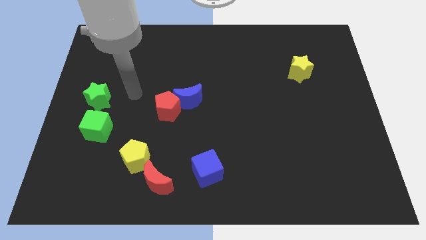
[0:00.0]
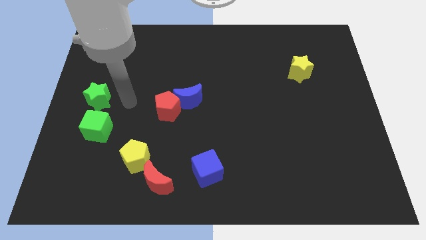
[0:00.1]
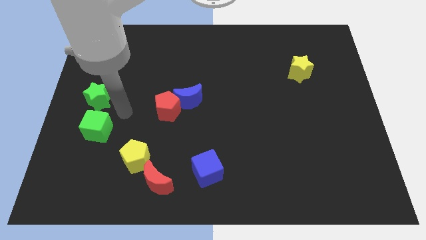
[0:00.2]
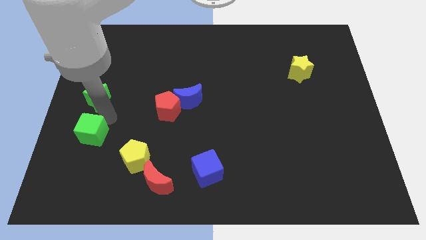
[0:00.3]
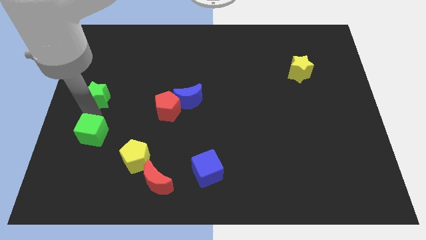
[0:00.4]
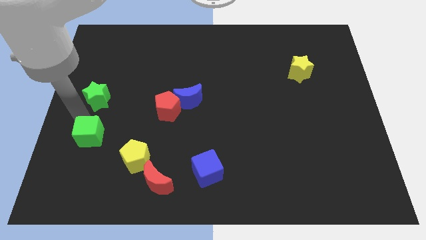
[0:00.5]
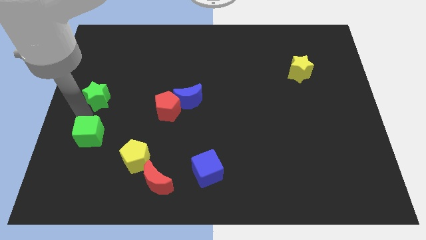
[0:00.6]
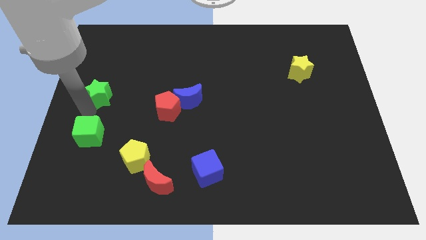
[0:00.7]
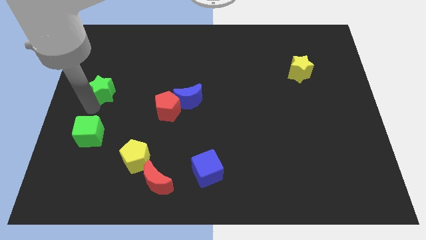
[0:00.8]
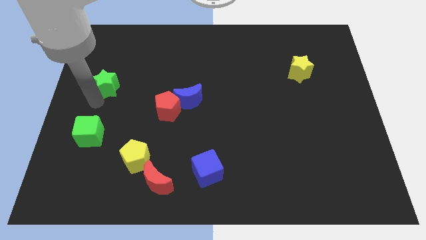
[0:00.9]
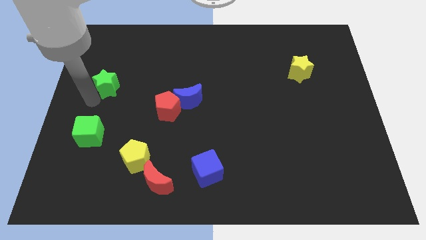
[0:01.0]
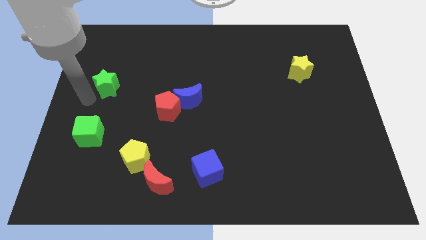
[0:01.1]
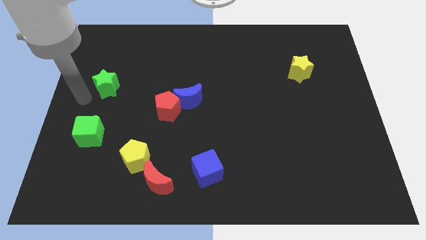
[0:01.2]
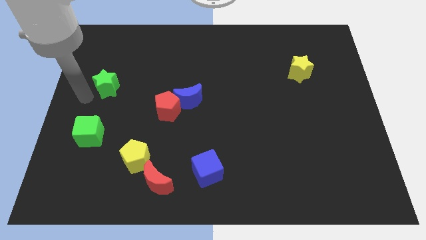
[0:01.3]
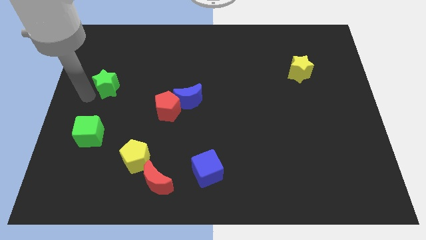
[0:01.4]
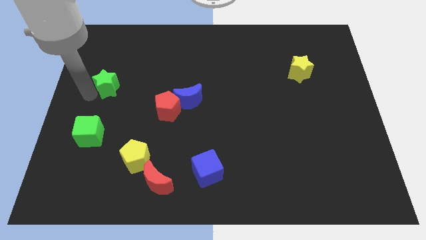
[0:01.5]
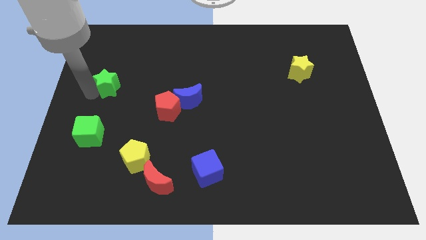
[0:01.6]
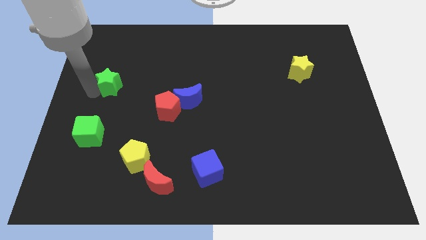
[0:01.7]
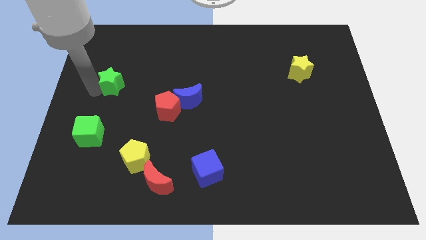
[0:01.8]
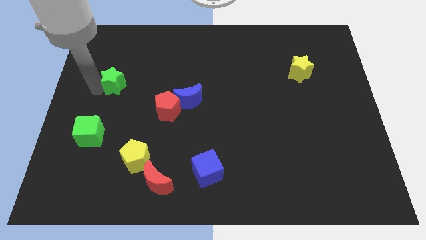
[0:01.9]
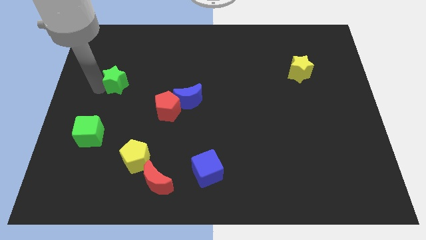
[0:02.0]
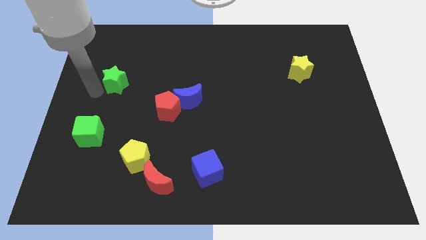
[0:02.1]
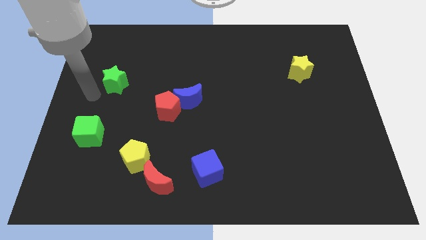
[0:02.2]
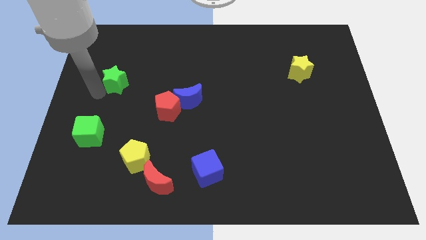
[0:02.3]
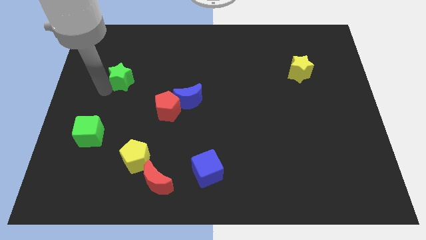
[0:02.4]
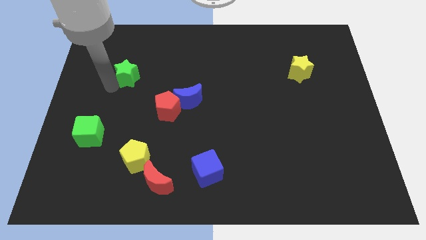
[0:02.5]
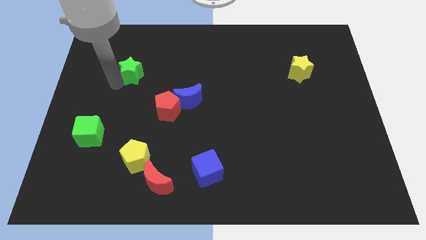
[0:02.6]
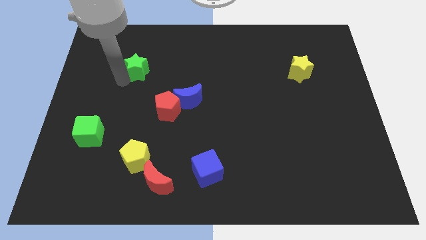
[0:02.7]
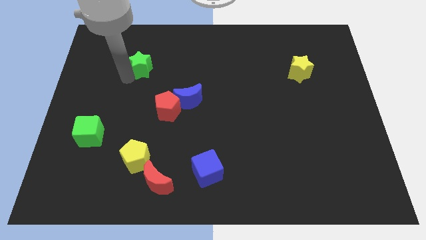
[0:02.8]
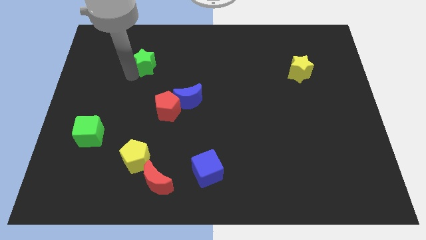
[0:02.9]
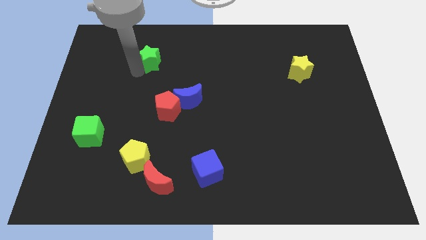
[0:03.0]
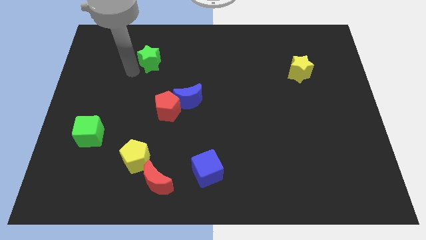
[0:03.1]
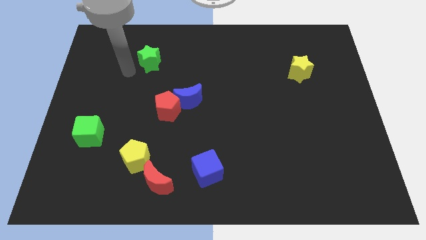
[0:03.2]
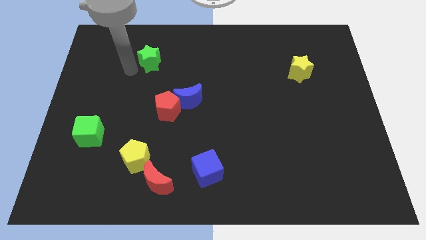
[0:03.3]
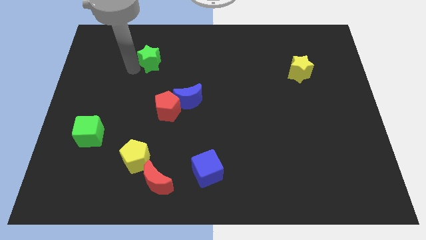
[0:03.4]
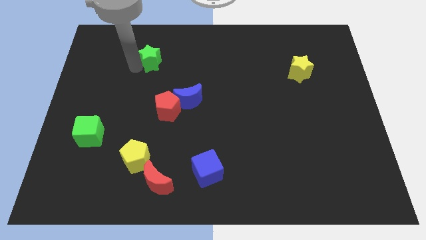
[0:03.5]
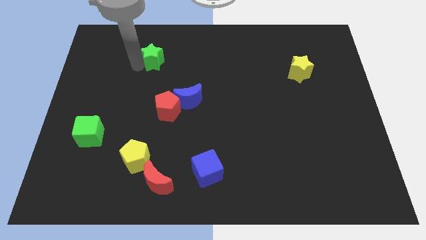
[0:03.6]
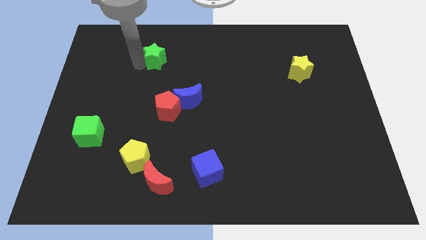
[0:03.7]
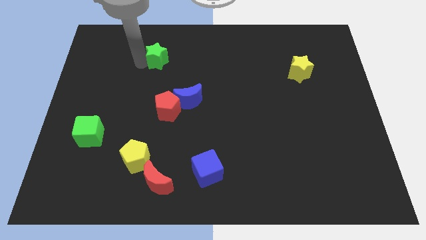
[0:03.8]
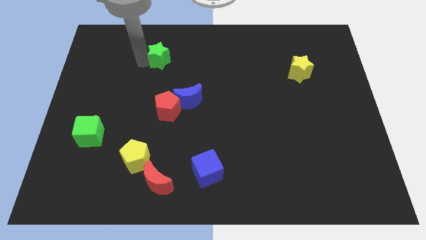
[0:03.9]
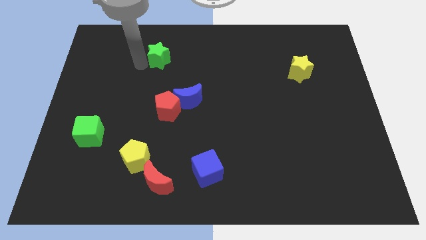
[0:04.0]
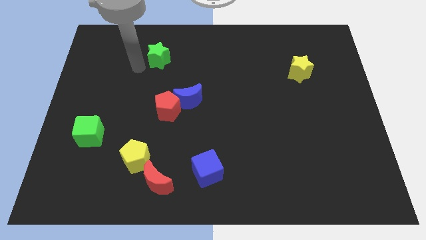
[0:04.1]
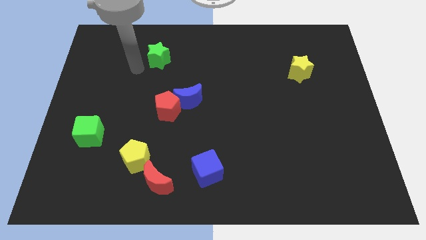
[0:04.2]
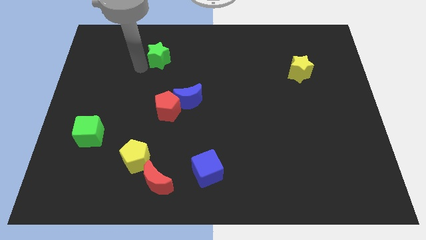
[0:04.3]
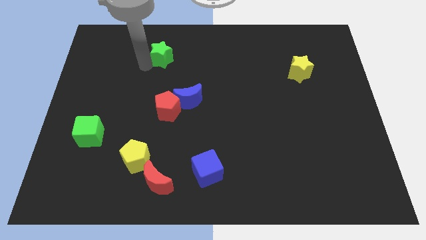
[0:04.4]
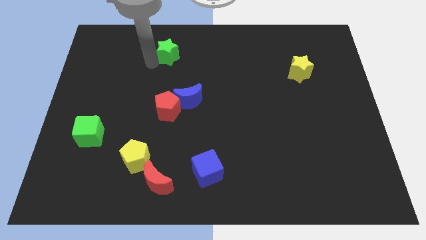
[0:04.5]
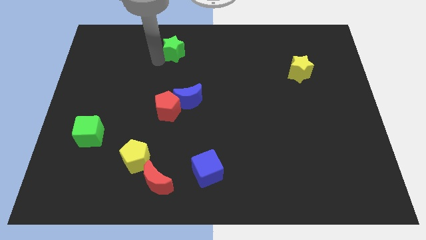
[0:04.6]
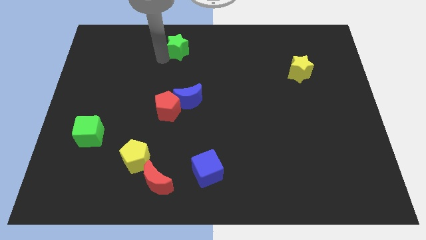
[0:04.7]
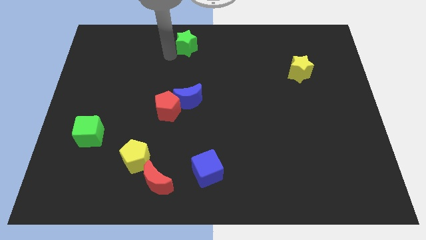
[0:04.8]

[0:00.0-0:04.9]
put the green star to the top side

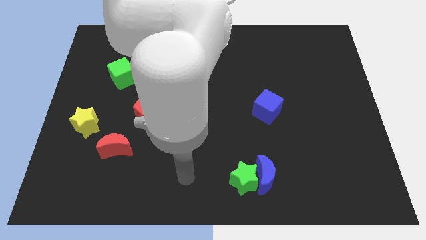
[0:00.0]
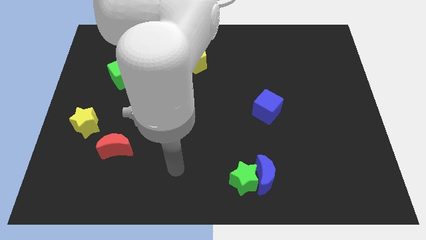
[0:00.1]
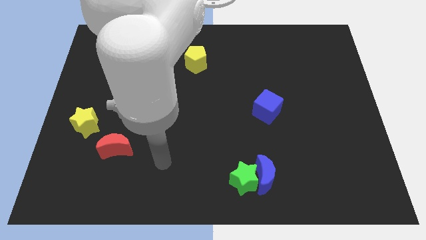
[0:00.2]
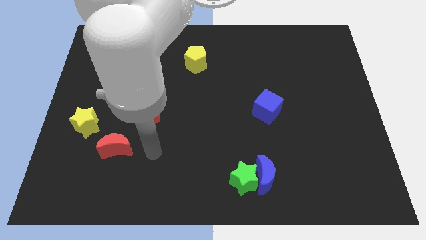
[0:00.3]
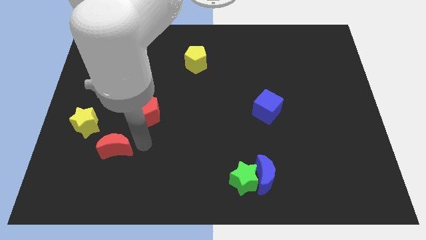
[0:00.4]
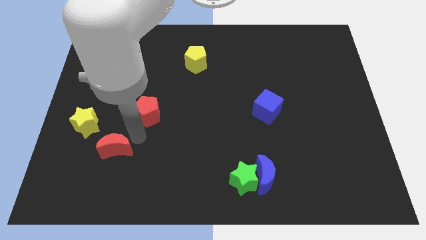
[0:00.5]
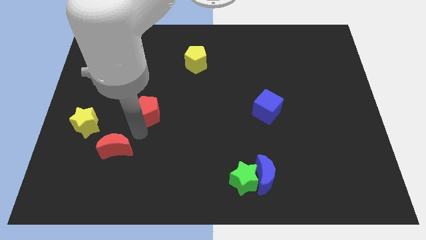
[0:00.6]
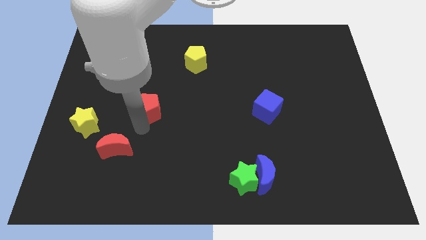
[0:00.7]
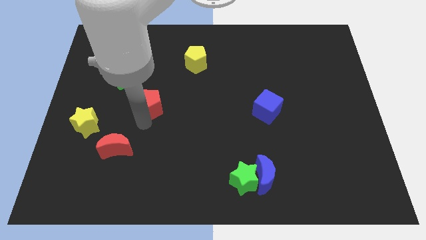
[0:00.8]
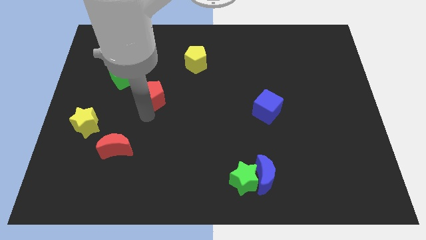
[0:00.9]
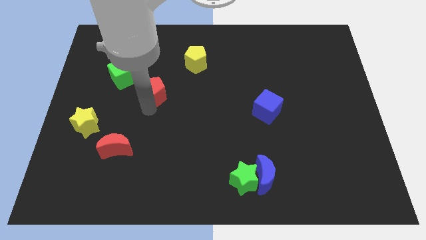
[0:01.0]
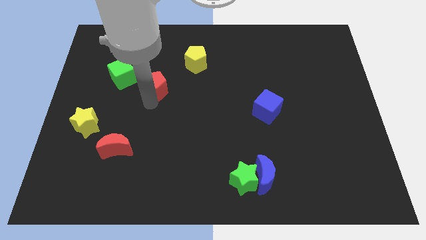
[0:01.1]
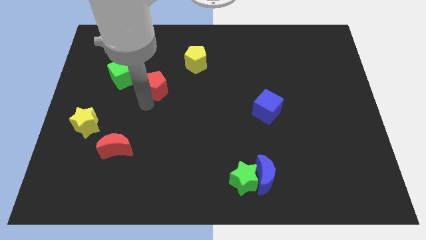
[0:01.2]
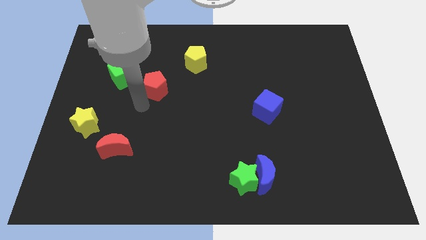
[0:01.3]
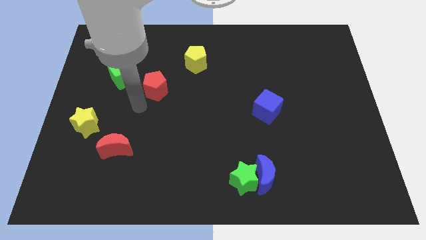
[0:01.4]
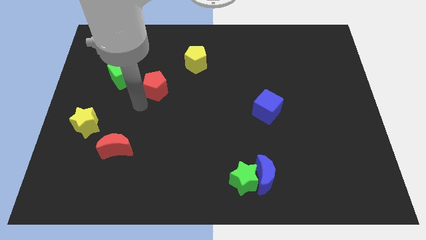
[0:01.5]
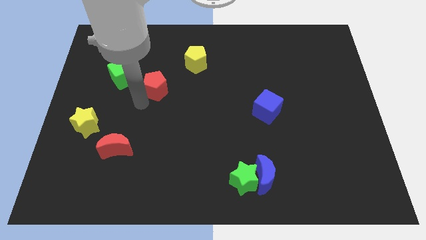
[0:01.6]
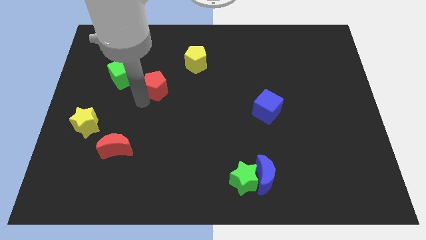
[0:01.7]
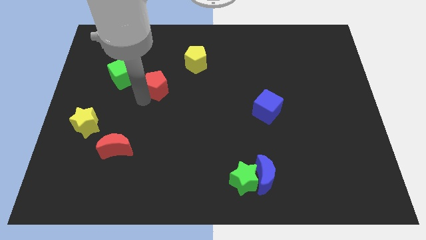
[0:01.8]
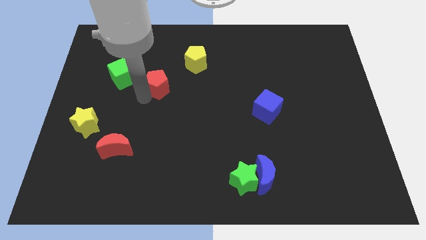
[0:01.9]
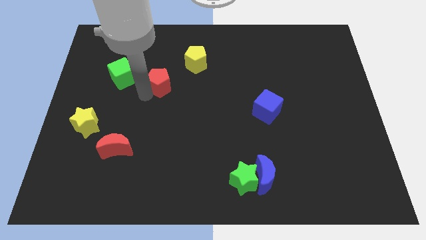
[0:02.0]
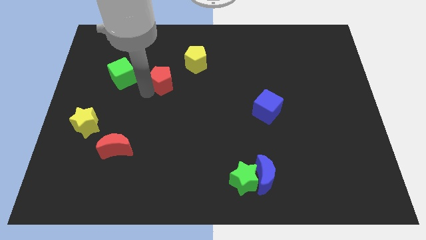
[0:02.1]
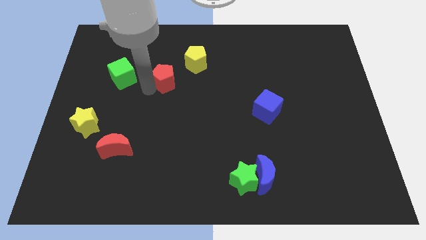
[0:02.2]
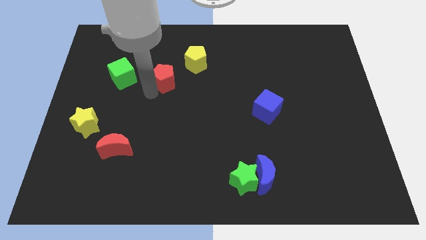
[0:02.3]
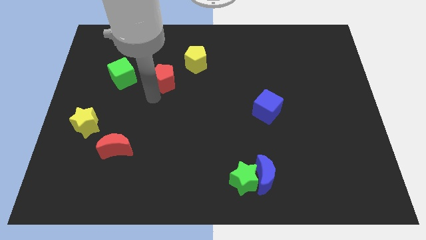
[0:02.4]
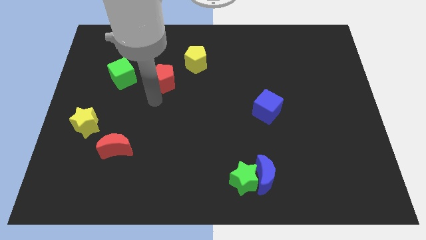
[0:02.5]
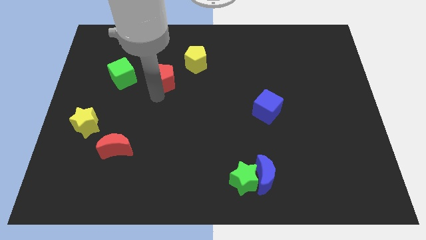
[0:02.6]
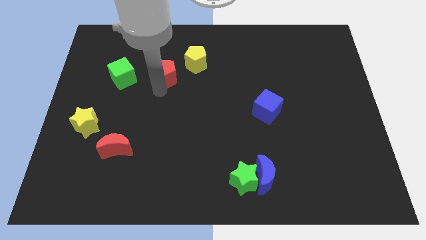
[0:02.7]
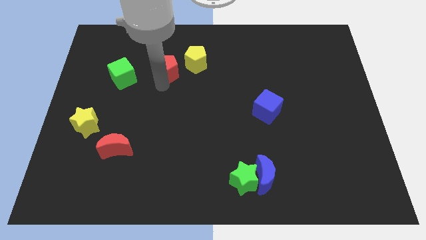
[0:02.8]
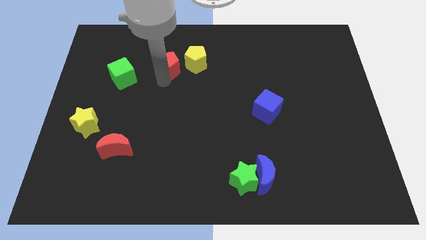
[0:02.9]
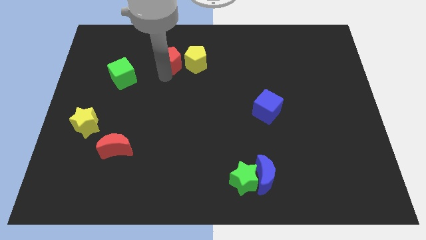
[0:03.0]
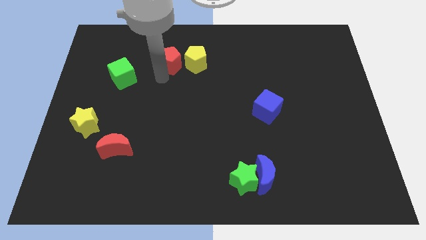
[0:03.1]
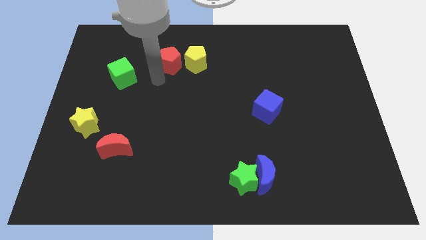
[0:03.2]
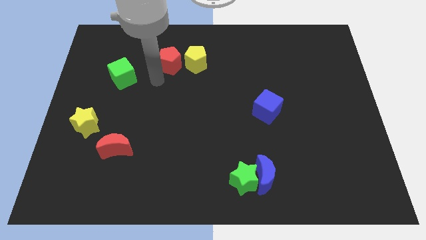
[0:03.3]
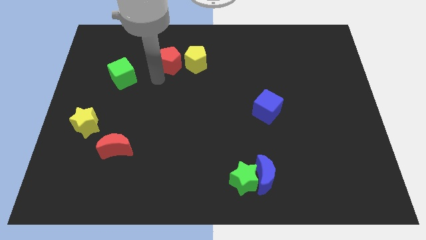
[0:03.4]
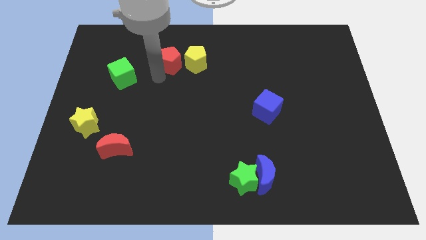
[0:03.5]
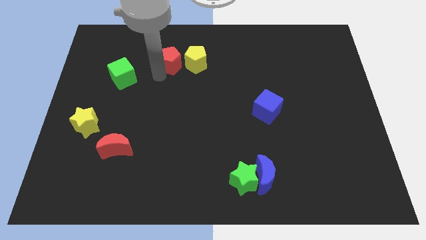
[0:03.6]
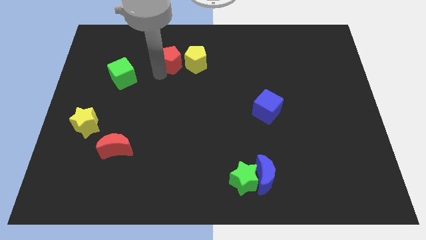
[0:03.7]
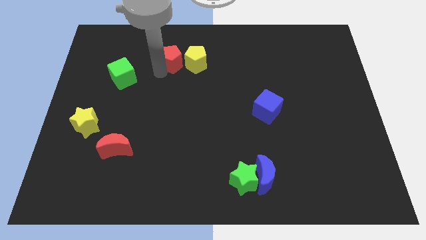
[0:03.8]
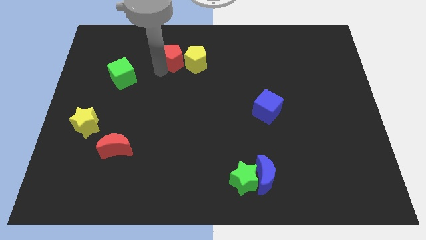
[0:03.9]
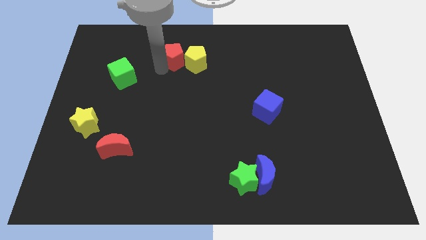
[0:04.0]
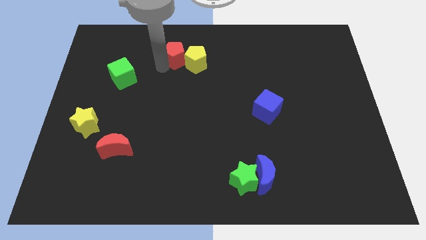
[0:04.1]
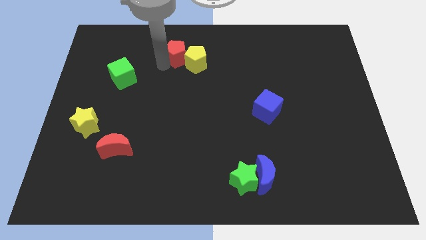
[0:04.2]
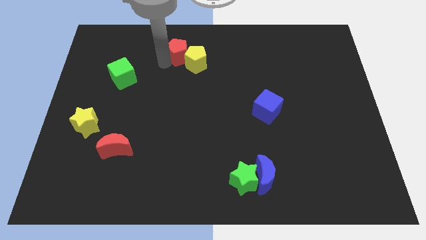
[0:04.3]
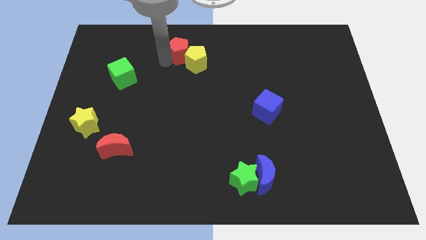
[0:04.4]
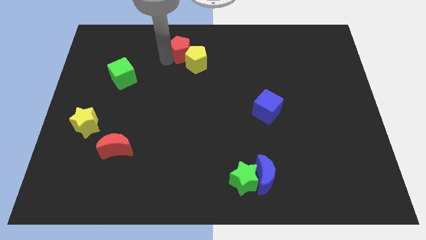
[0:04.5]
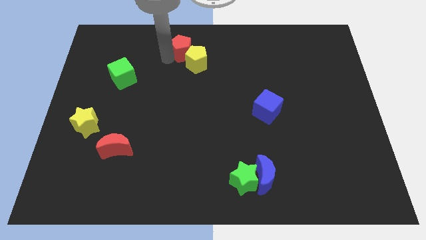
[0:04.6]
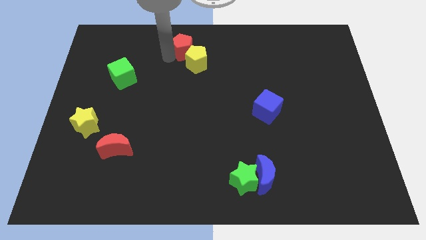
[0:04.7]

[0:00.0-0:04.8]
move the red pentagon to the top
